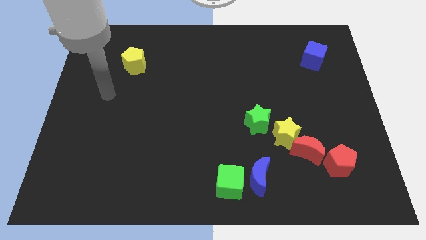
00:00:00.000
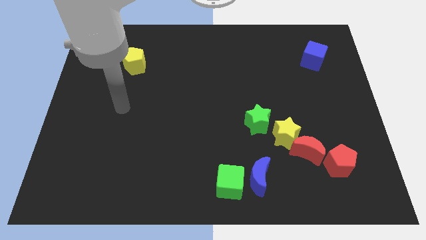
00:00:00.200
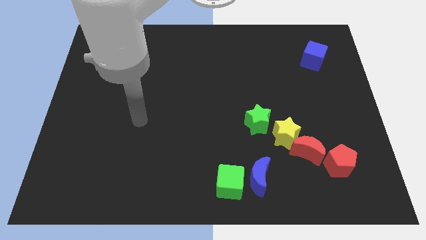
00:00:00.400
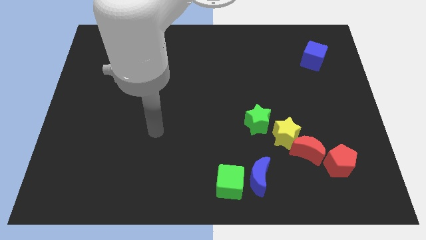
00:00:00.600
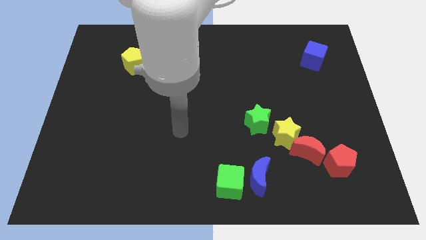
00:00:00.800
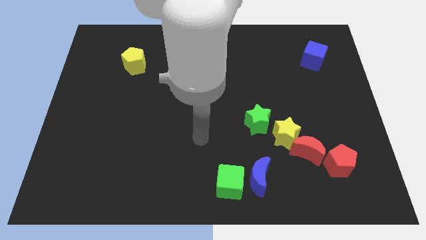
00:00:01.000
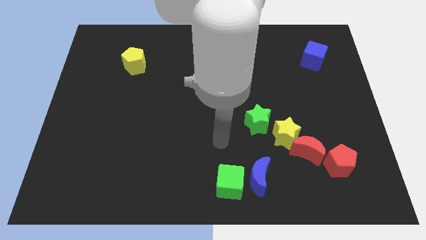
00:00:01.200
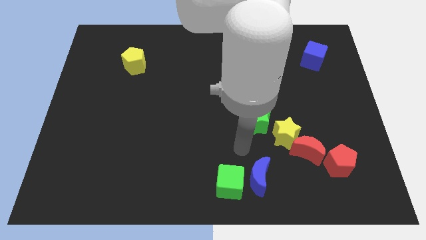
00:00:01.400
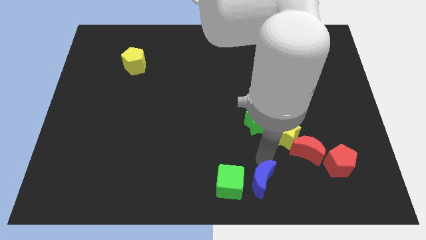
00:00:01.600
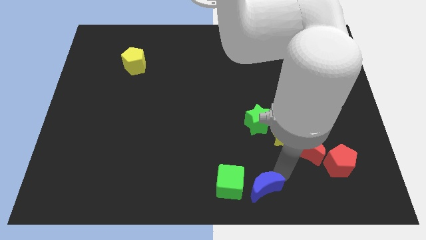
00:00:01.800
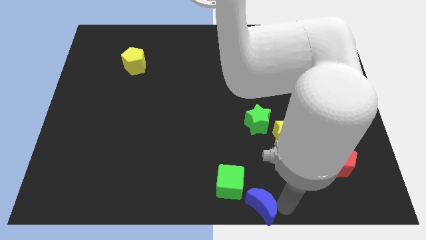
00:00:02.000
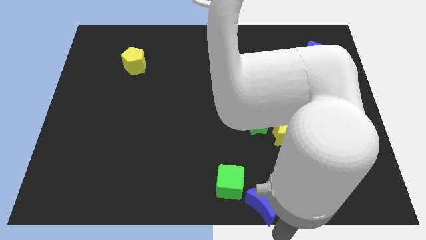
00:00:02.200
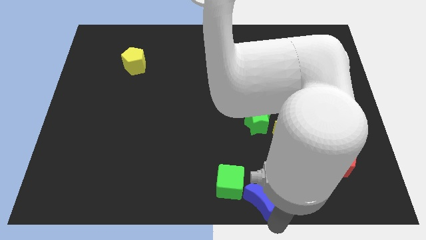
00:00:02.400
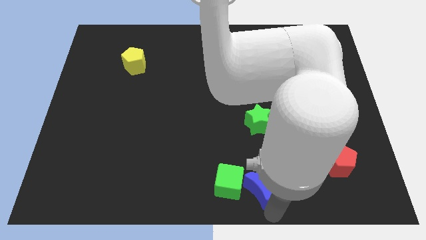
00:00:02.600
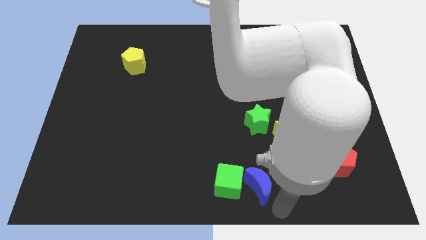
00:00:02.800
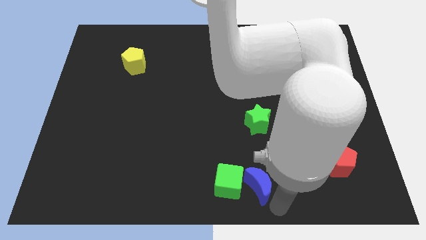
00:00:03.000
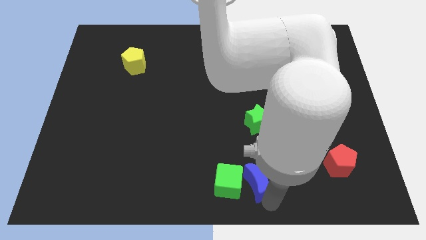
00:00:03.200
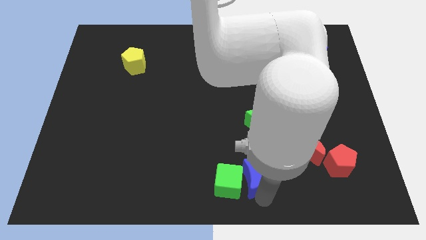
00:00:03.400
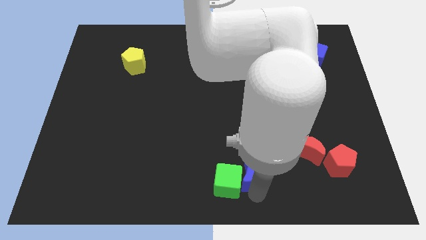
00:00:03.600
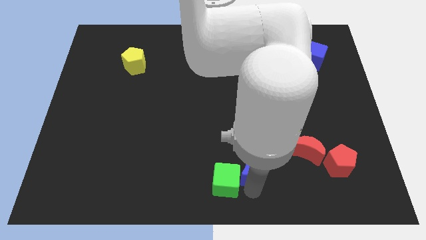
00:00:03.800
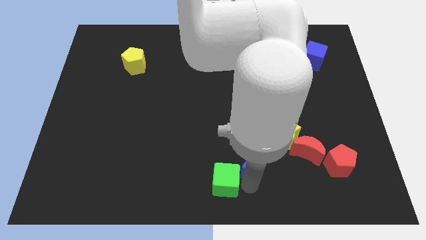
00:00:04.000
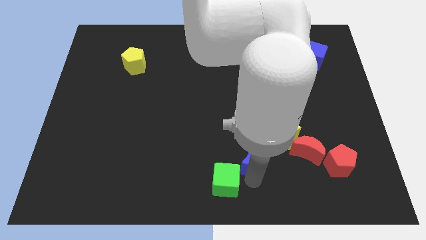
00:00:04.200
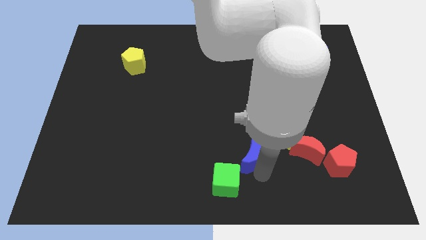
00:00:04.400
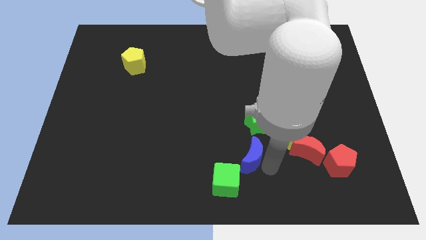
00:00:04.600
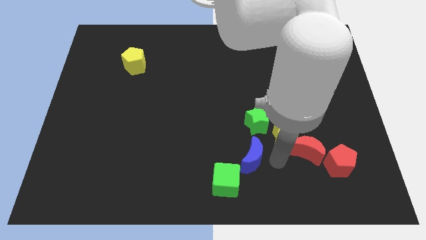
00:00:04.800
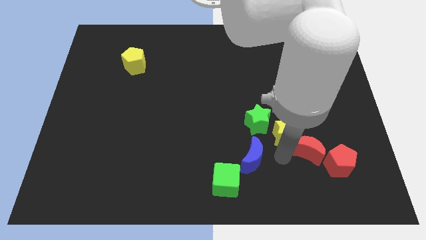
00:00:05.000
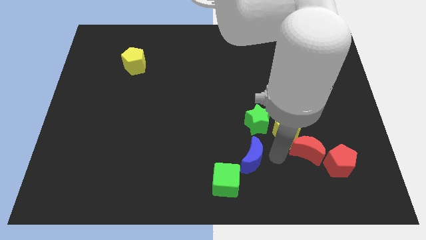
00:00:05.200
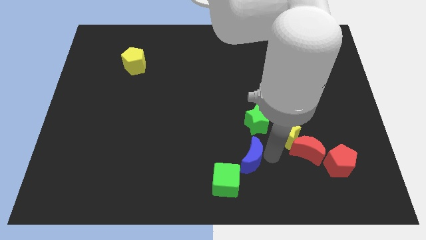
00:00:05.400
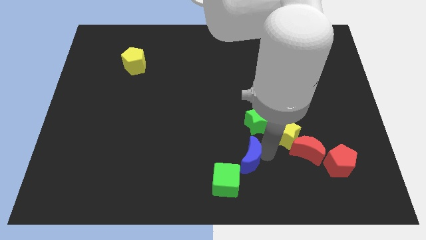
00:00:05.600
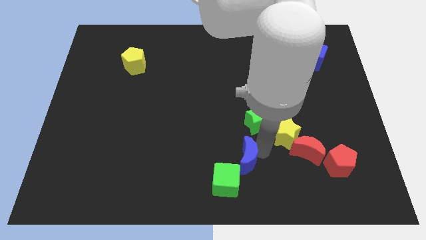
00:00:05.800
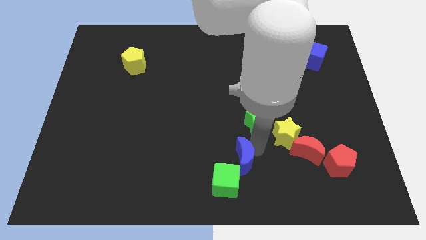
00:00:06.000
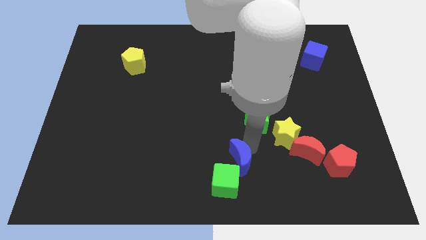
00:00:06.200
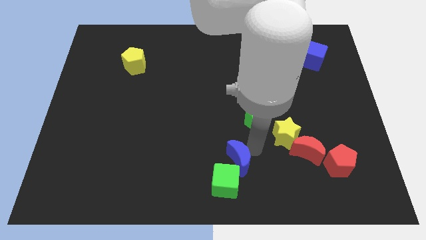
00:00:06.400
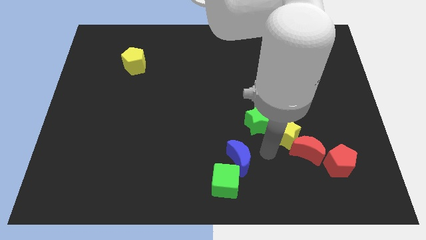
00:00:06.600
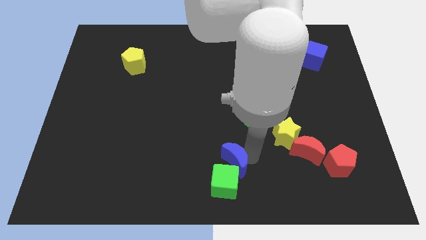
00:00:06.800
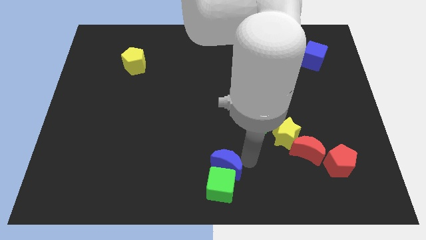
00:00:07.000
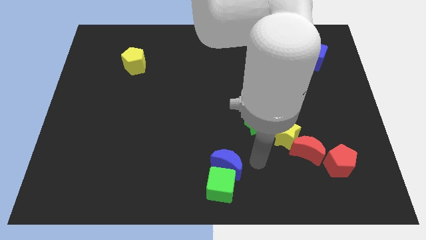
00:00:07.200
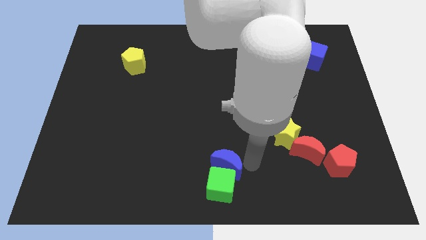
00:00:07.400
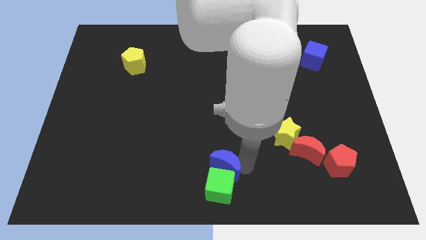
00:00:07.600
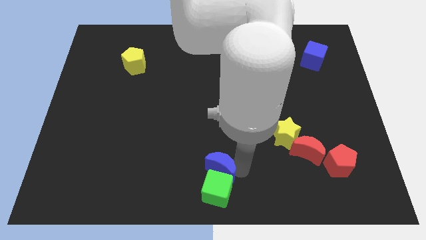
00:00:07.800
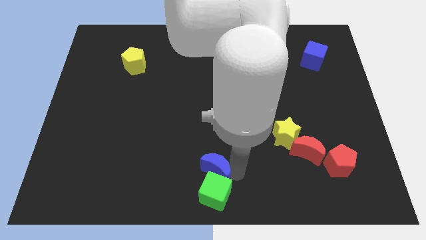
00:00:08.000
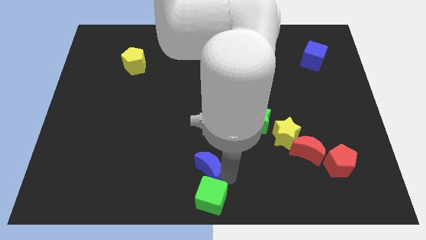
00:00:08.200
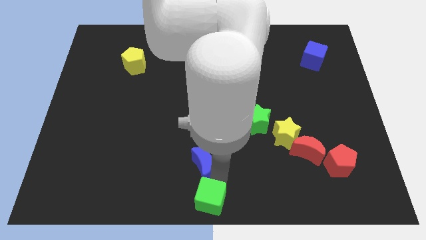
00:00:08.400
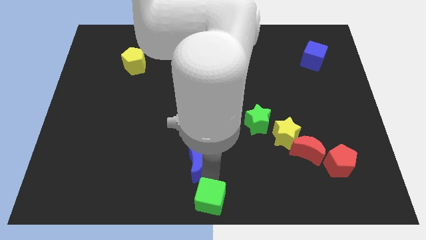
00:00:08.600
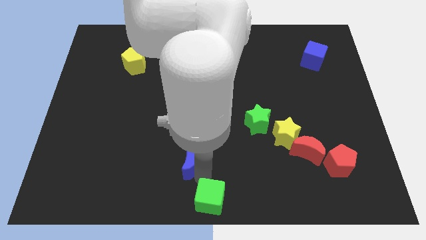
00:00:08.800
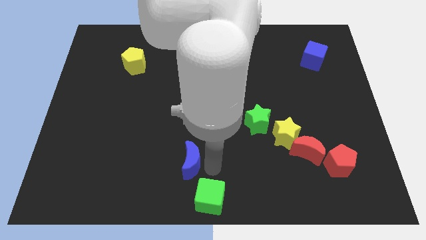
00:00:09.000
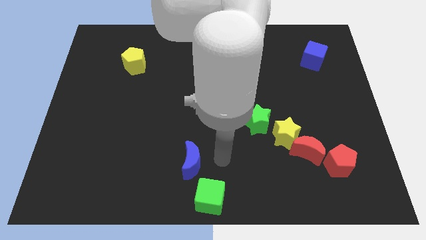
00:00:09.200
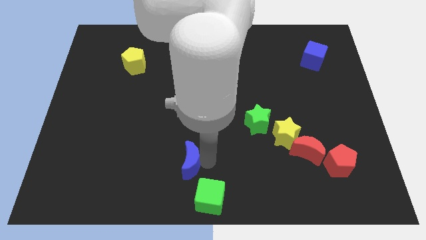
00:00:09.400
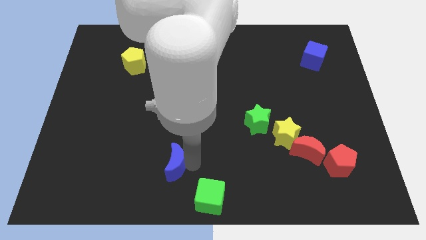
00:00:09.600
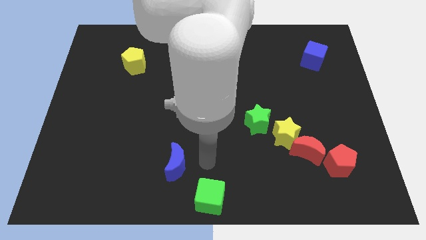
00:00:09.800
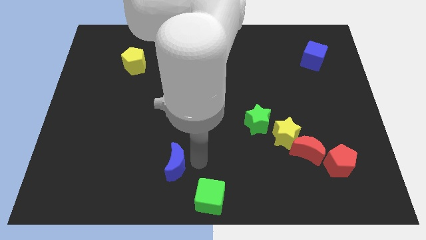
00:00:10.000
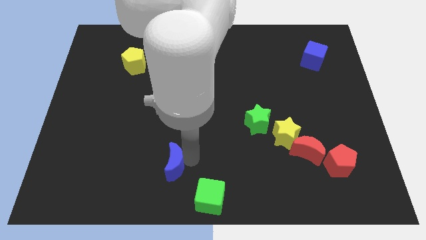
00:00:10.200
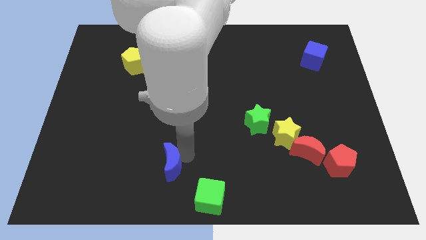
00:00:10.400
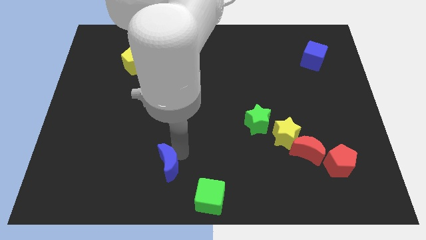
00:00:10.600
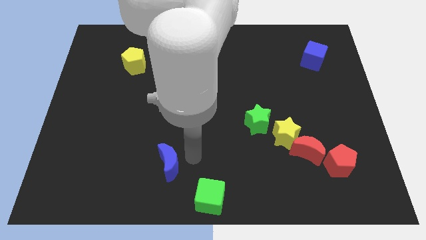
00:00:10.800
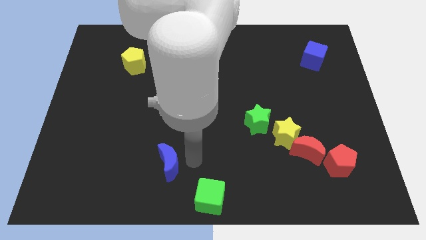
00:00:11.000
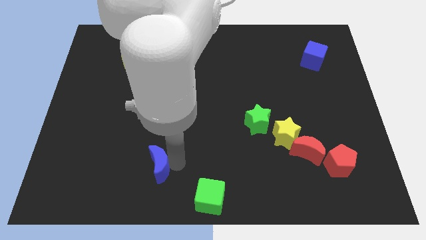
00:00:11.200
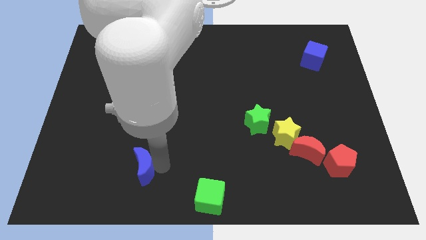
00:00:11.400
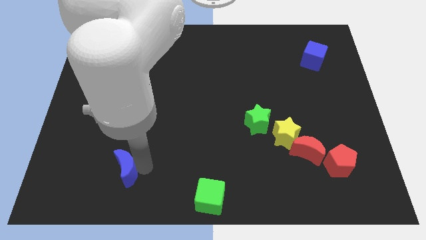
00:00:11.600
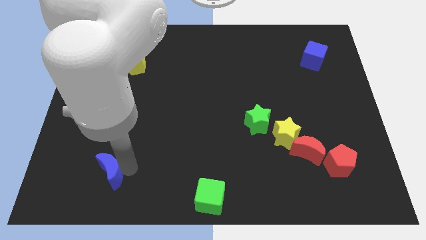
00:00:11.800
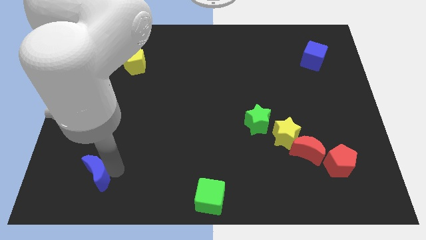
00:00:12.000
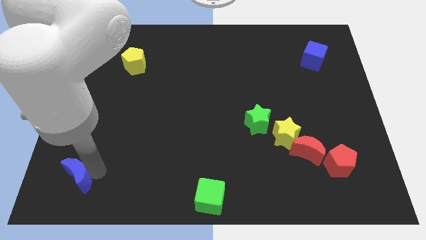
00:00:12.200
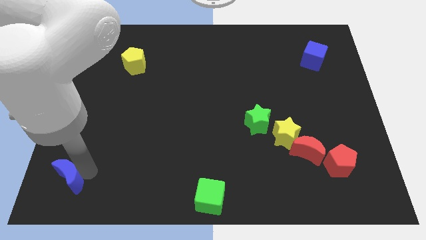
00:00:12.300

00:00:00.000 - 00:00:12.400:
slide the blue moon to the bottom left corner
